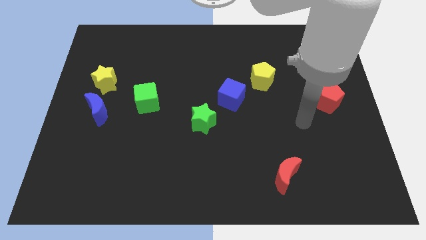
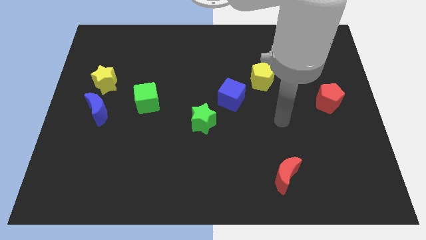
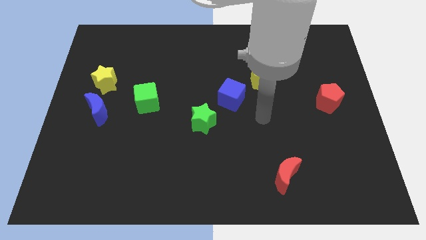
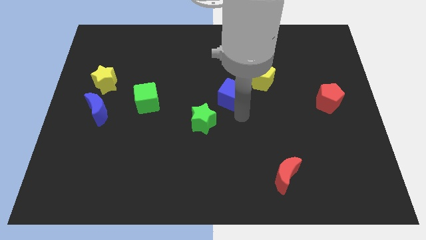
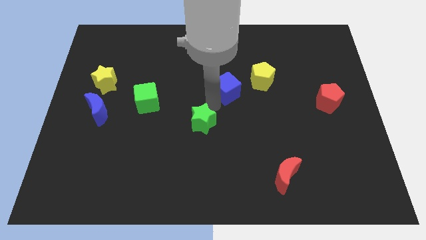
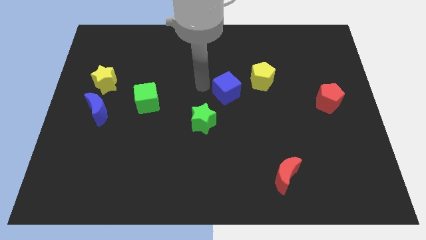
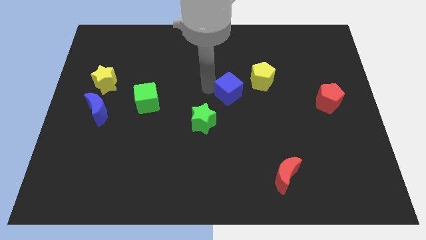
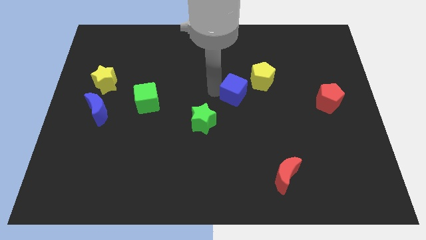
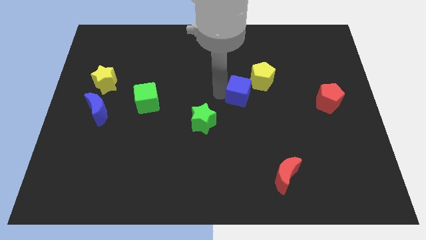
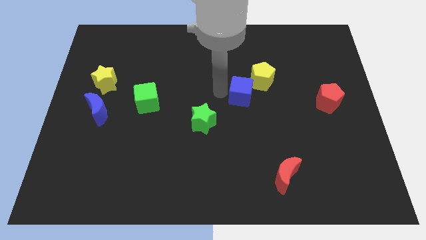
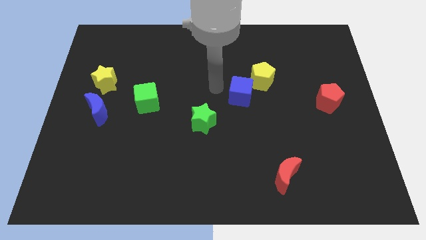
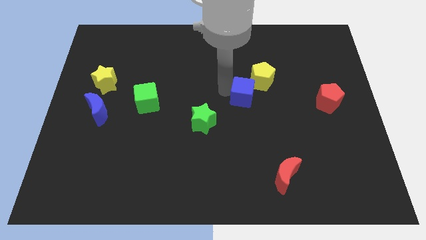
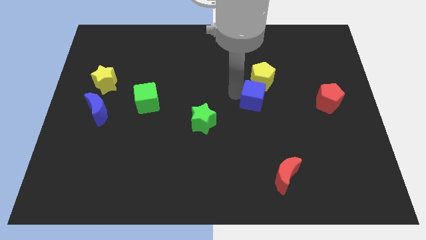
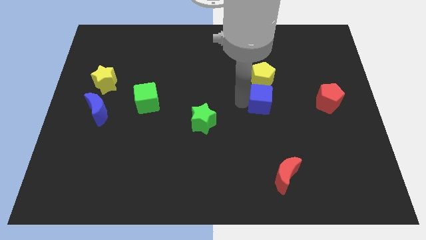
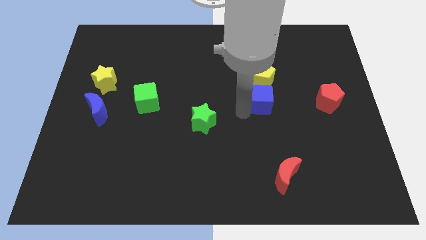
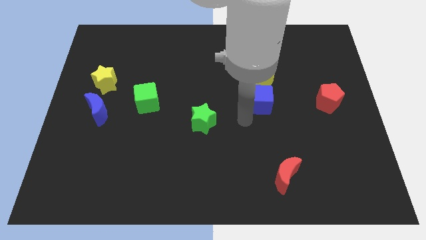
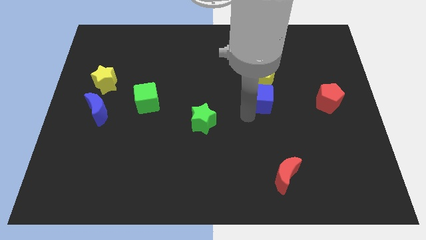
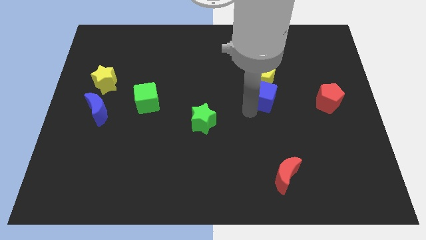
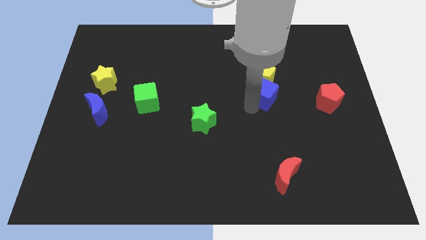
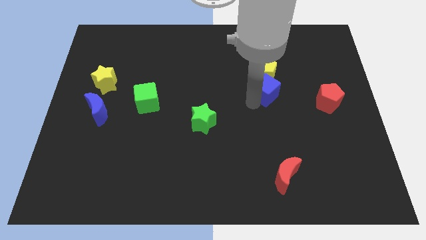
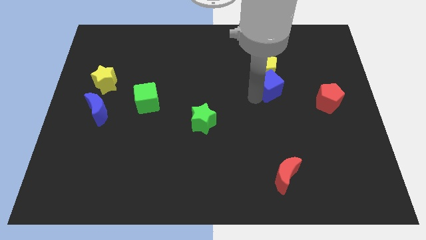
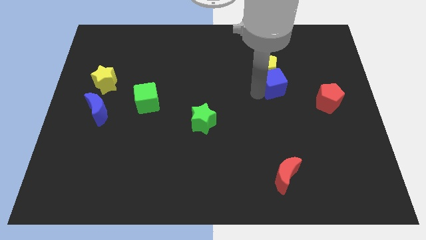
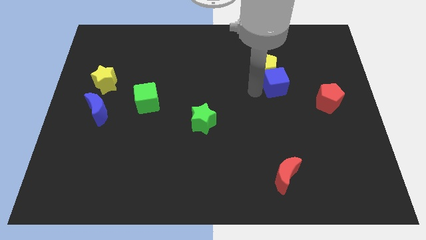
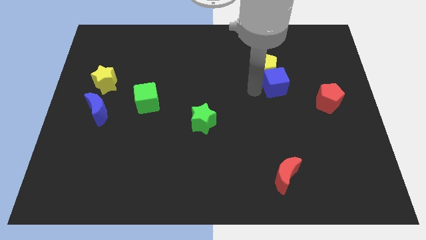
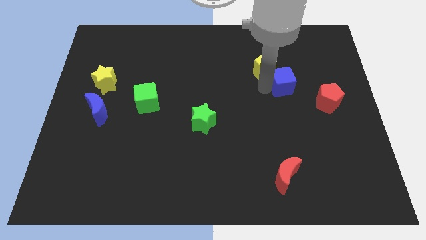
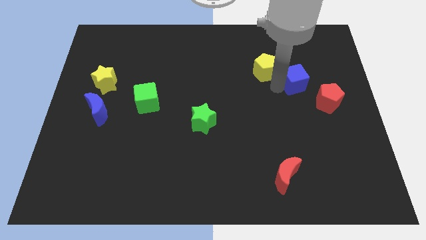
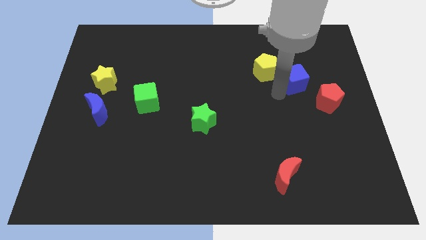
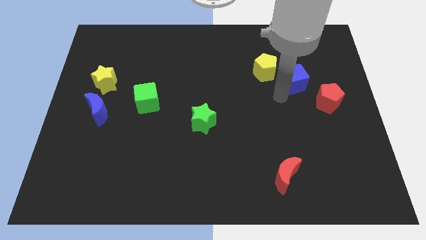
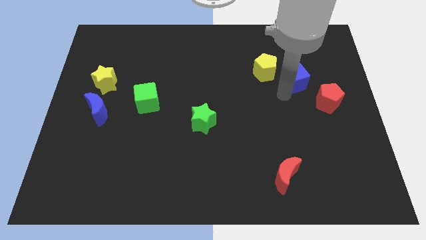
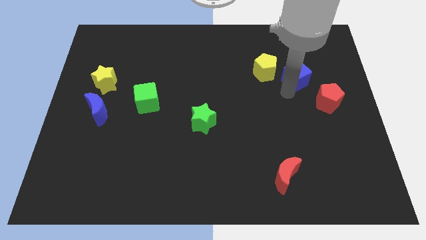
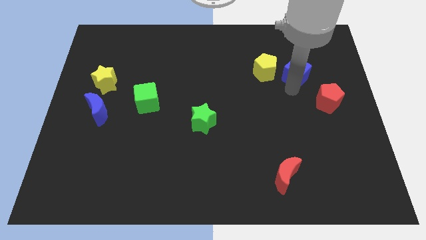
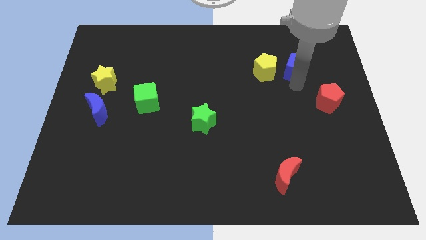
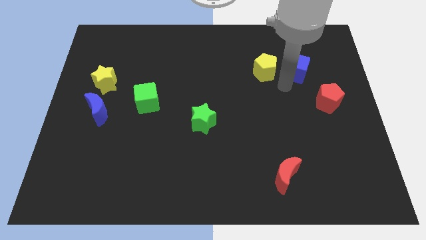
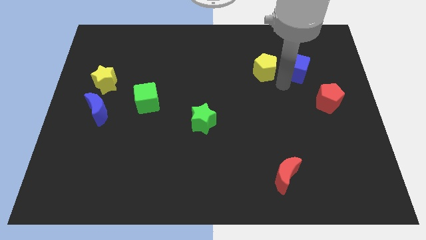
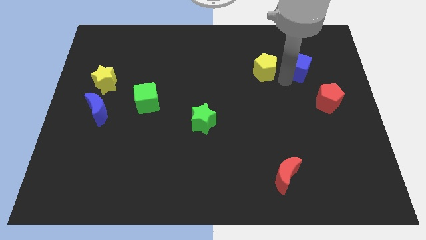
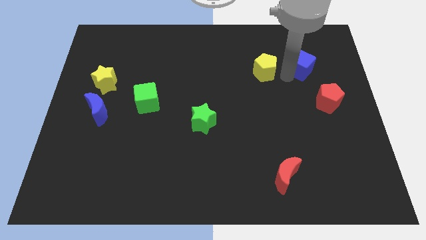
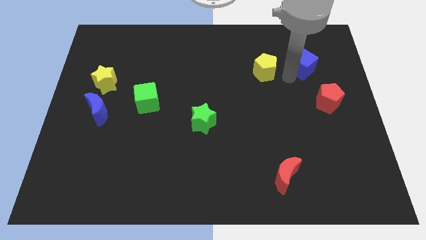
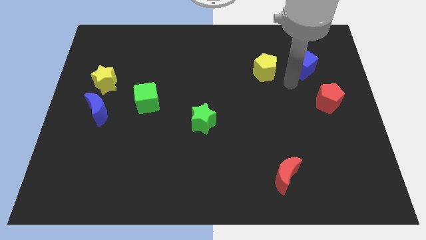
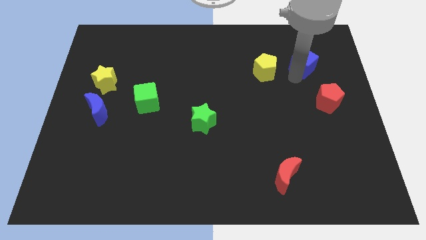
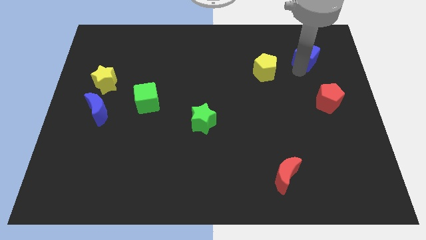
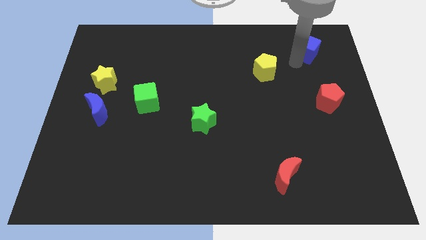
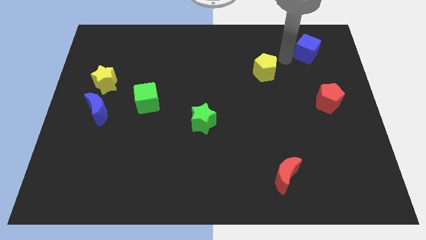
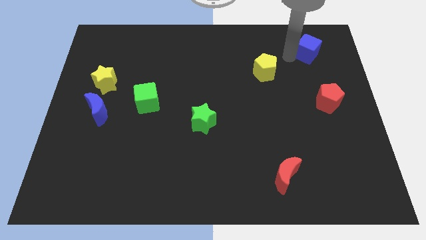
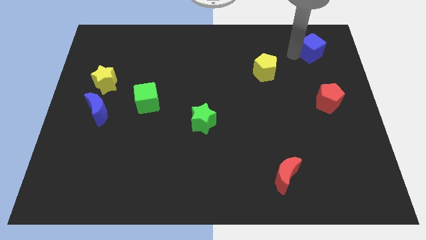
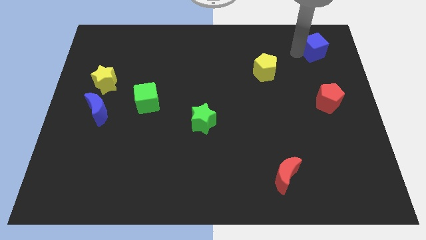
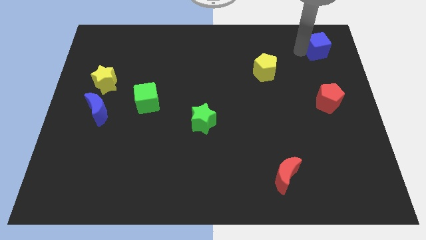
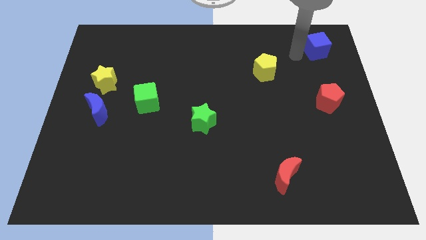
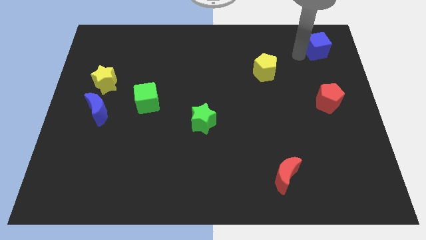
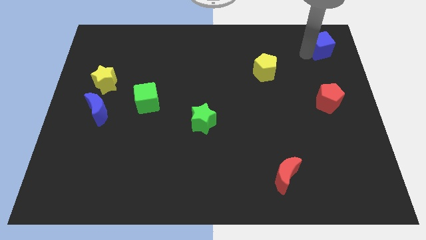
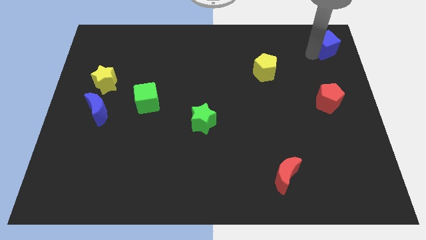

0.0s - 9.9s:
put the blue cube to the upper right corner

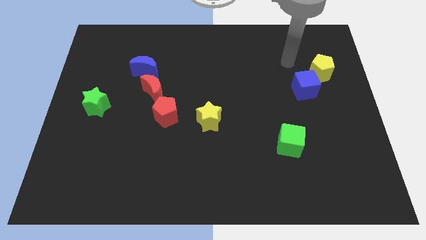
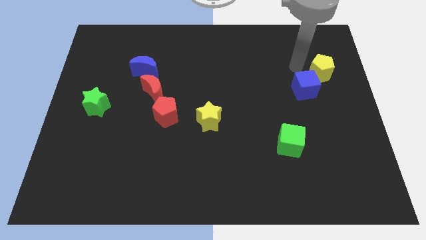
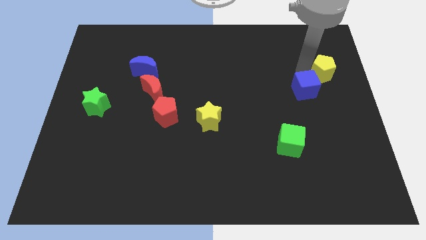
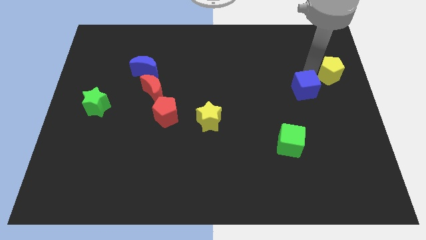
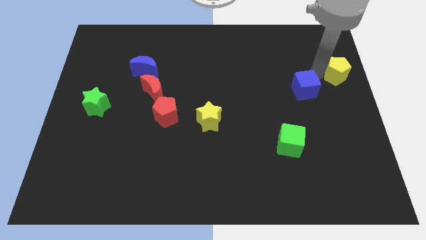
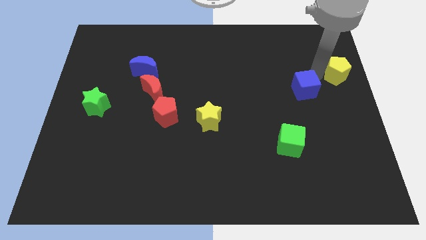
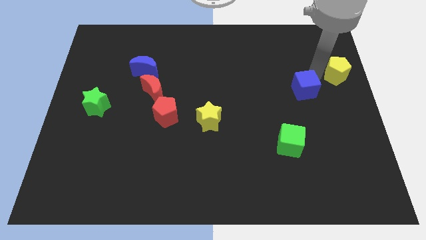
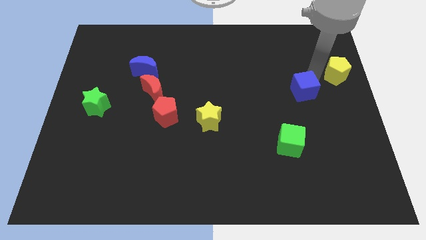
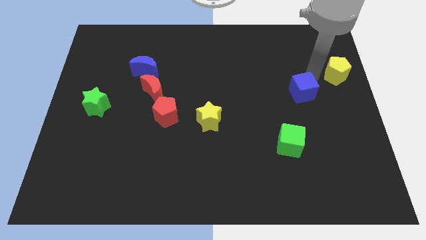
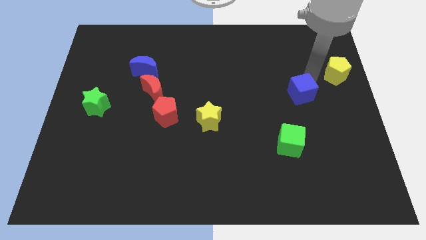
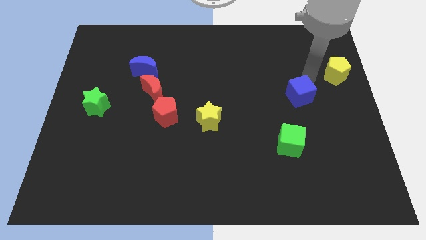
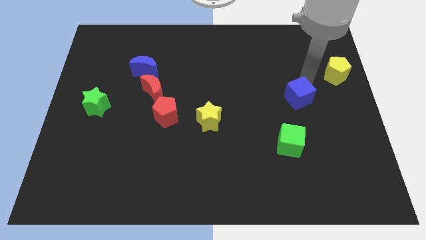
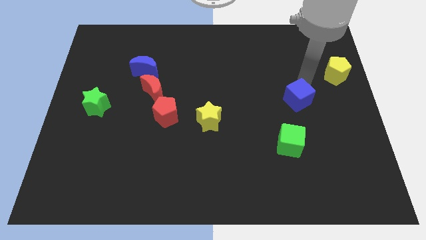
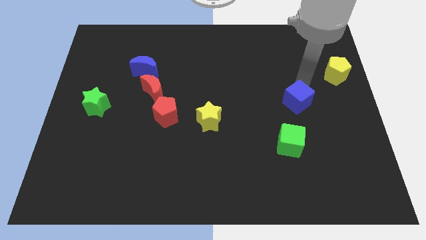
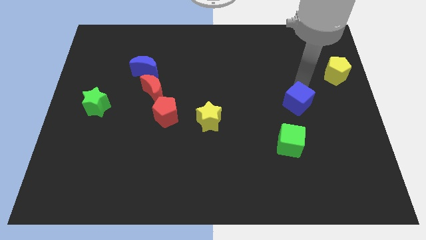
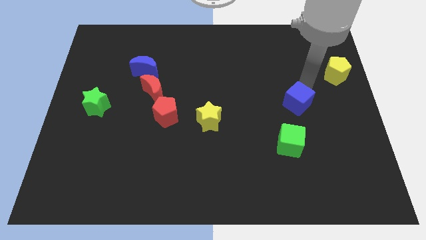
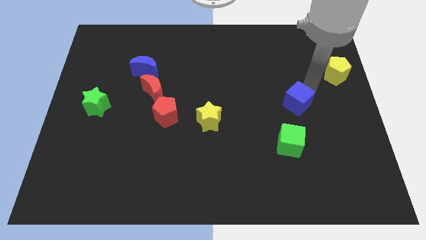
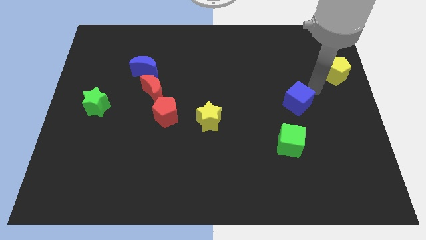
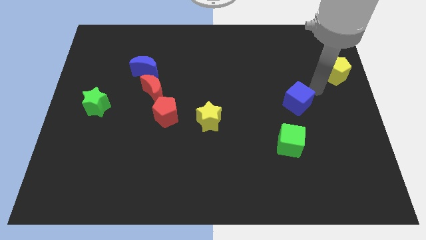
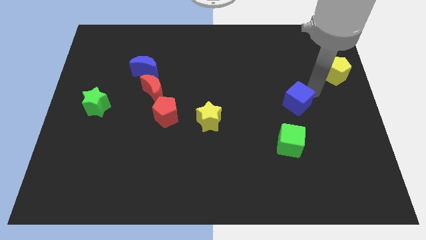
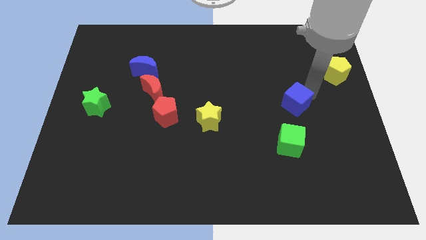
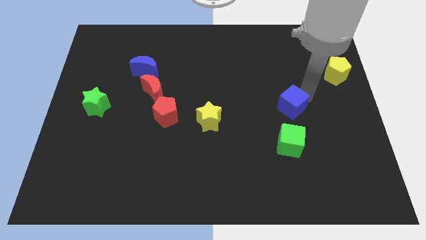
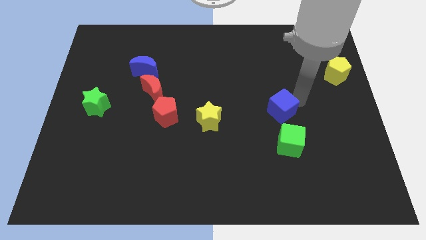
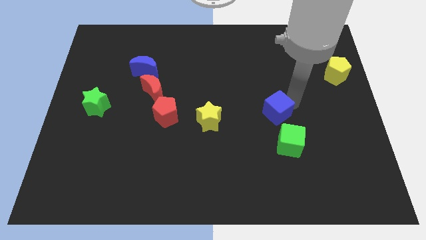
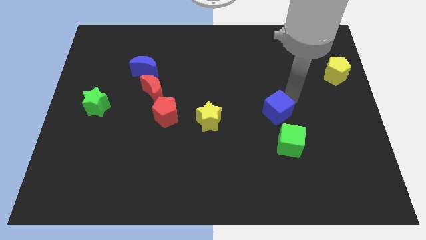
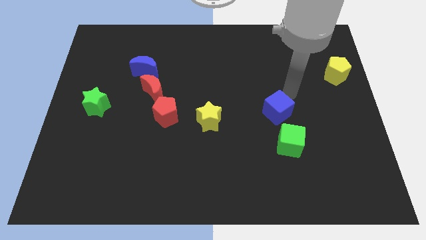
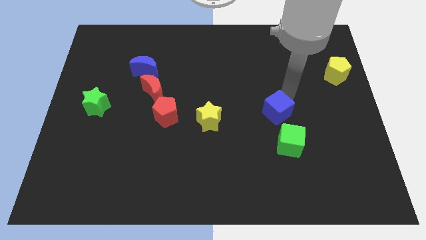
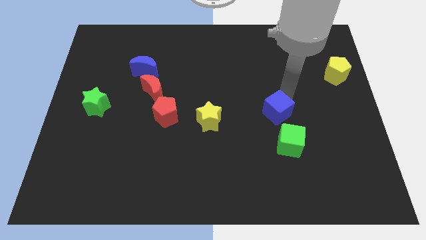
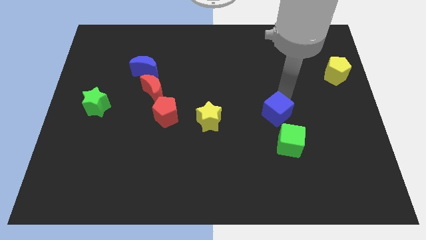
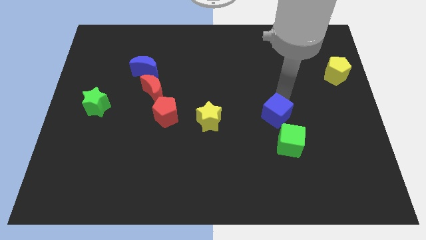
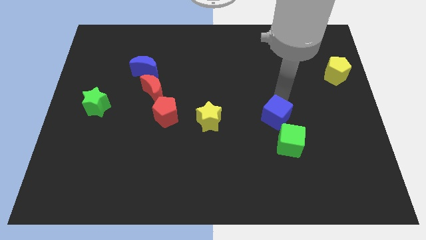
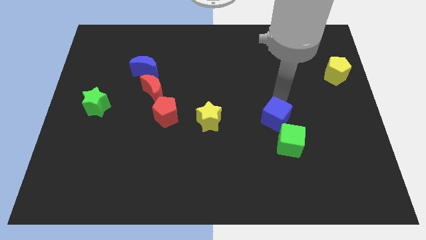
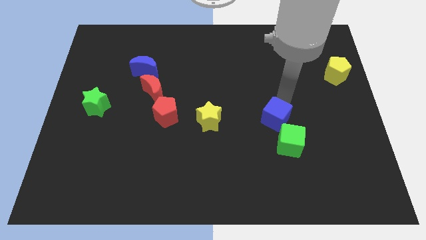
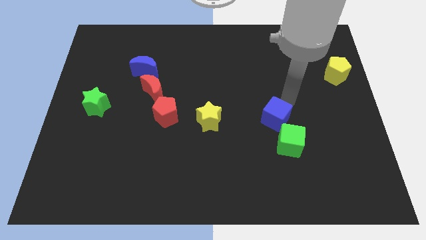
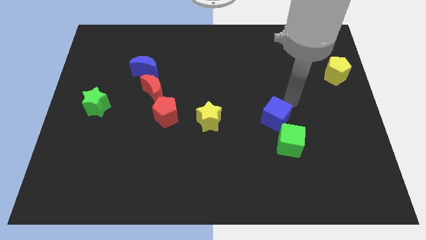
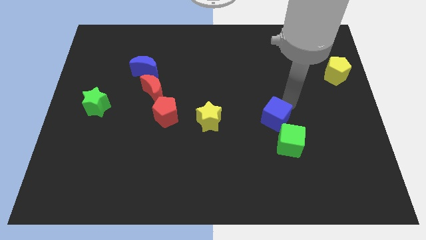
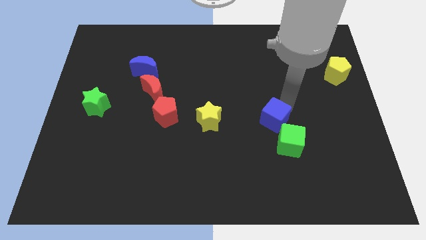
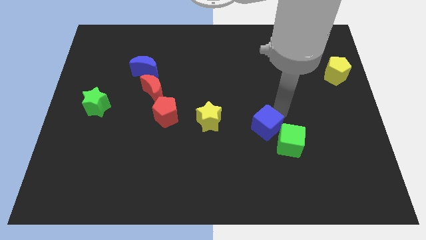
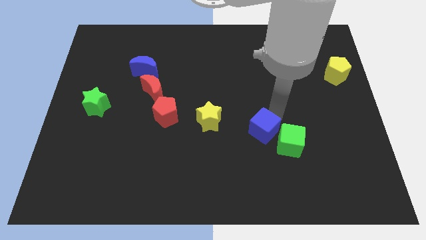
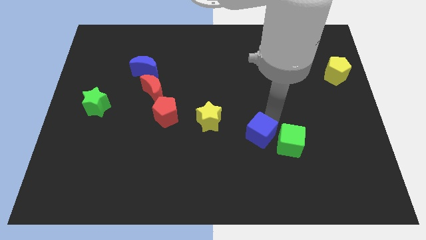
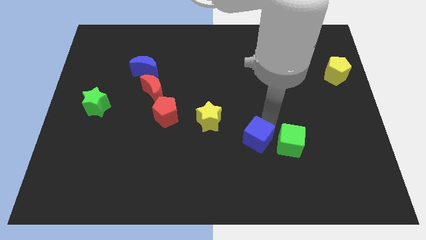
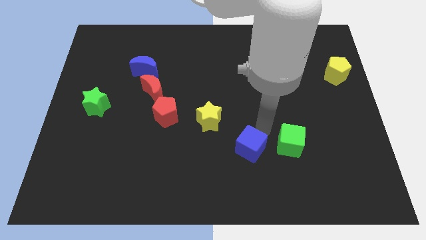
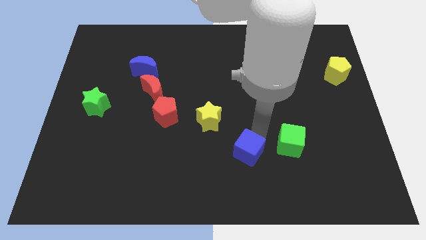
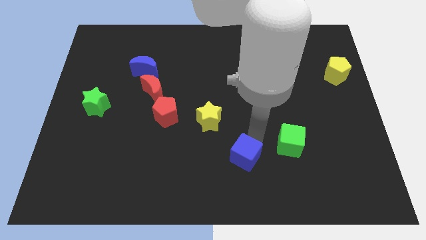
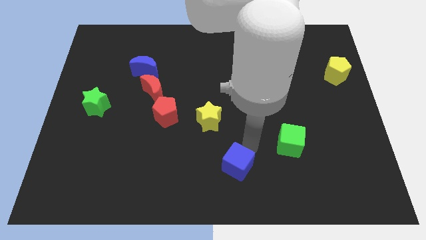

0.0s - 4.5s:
put the blue cube to the bottom side
